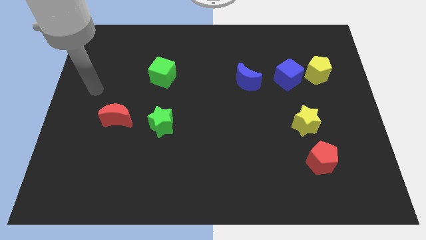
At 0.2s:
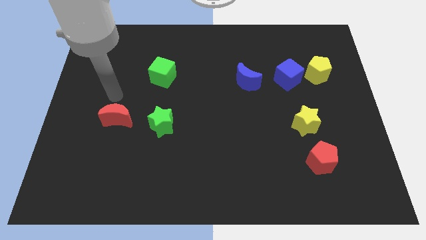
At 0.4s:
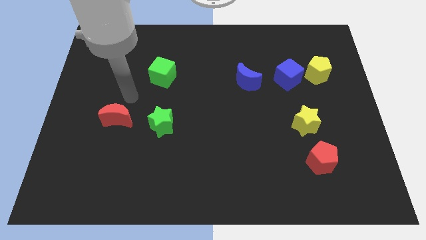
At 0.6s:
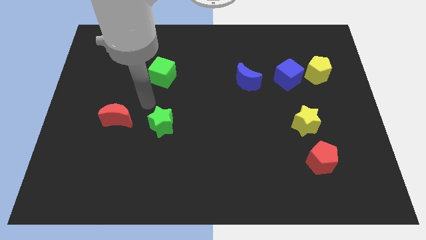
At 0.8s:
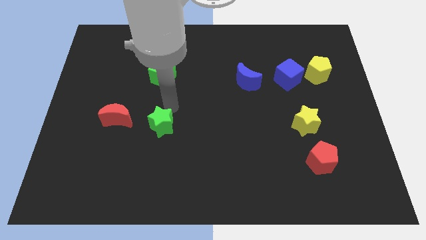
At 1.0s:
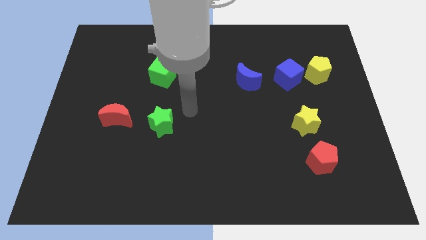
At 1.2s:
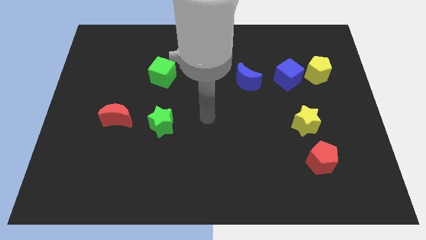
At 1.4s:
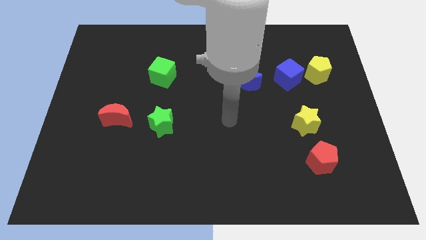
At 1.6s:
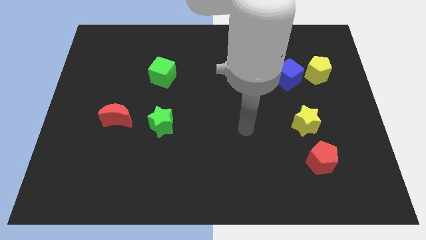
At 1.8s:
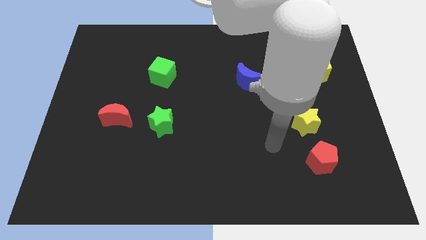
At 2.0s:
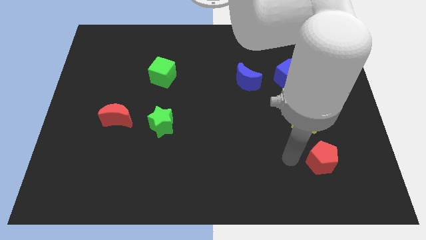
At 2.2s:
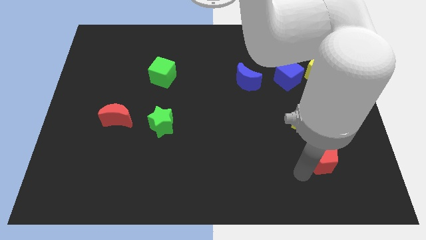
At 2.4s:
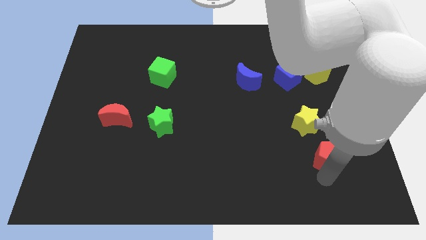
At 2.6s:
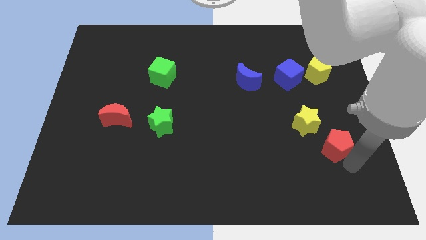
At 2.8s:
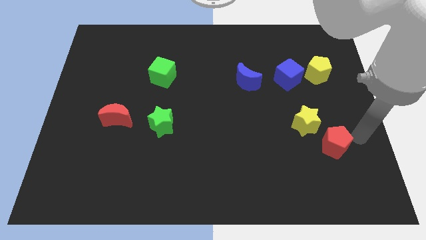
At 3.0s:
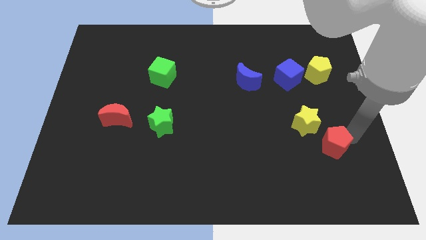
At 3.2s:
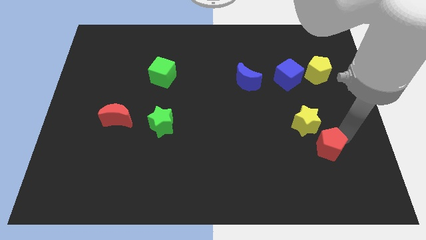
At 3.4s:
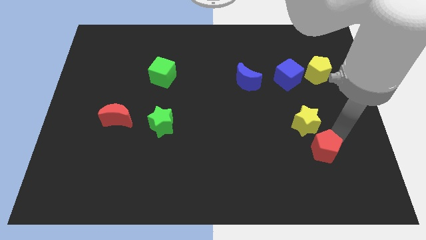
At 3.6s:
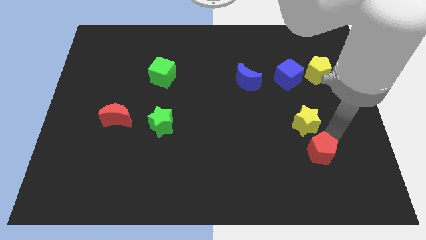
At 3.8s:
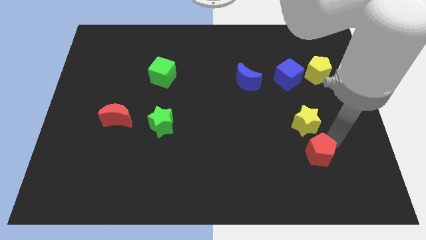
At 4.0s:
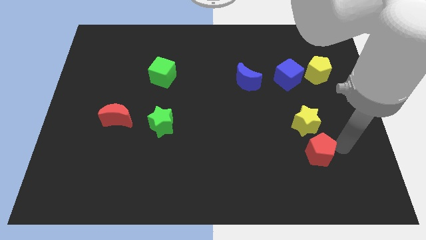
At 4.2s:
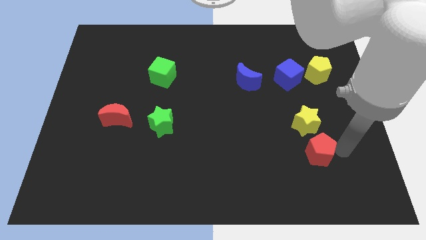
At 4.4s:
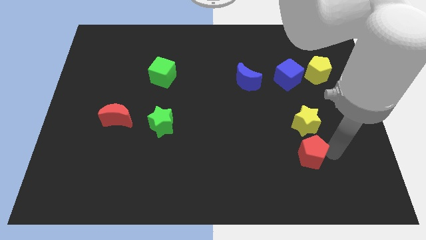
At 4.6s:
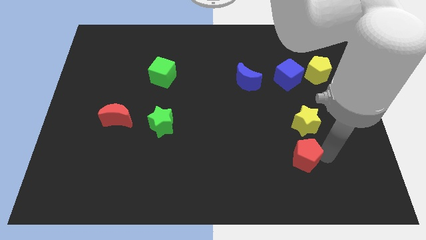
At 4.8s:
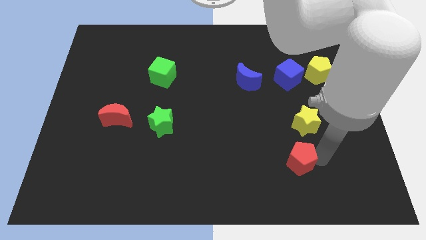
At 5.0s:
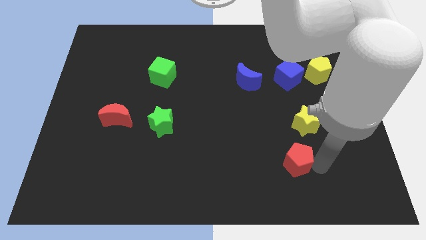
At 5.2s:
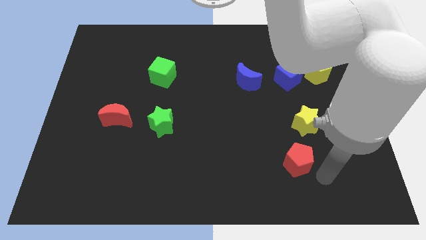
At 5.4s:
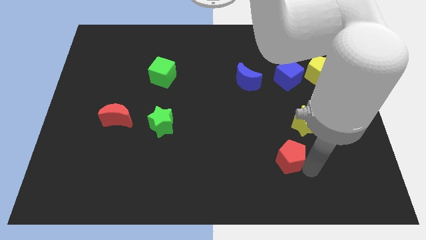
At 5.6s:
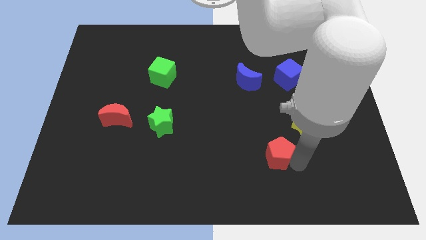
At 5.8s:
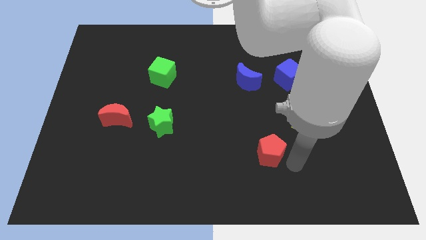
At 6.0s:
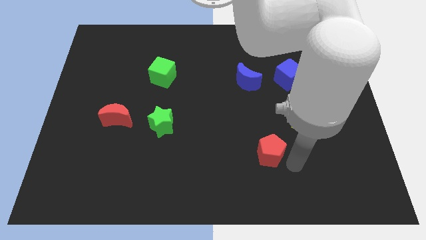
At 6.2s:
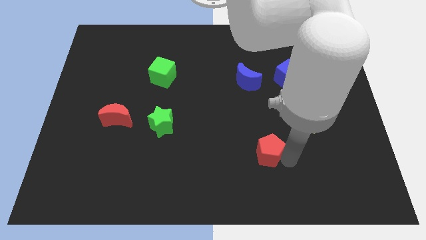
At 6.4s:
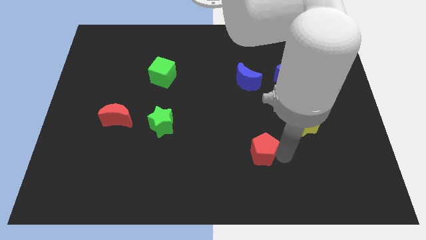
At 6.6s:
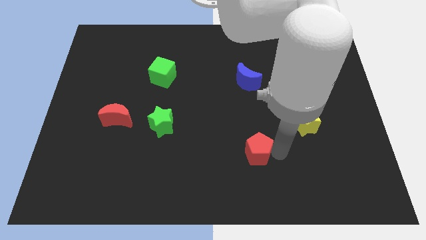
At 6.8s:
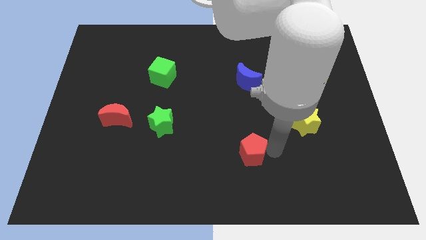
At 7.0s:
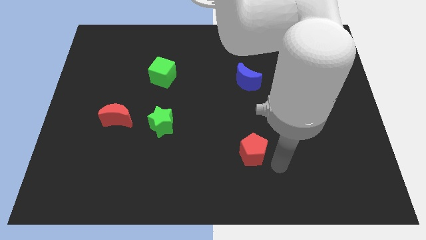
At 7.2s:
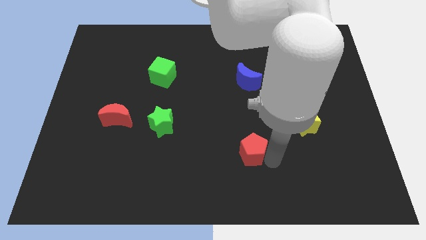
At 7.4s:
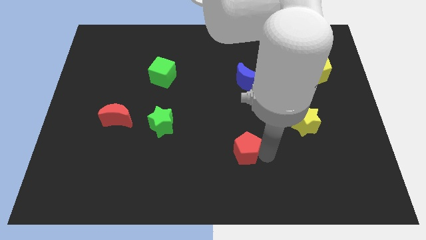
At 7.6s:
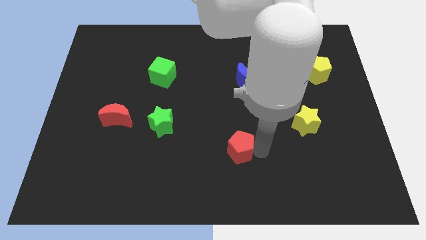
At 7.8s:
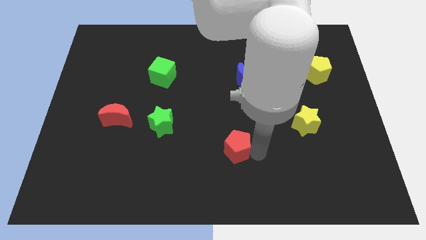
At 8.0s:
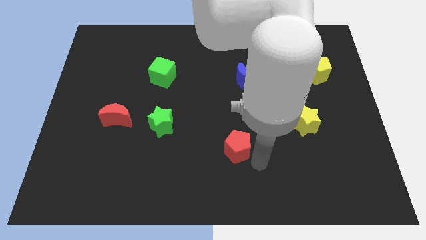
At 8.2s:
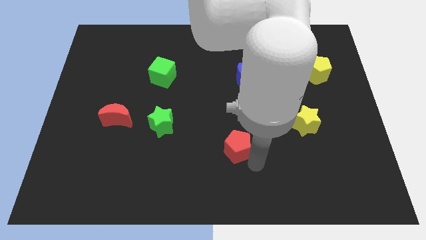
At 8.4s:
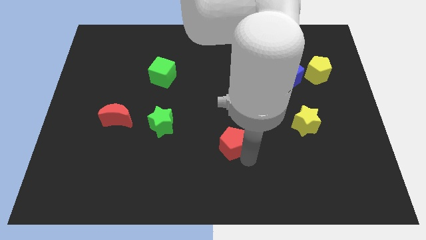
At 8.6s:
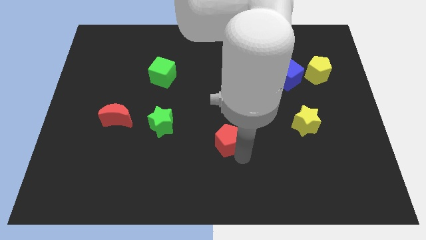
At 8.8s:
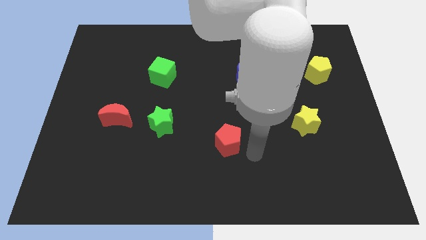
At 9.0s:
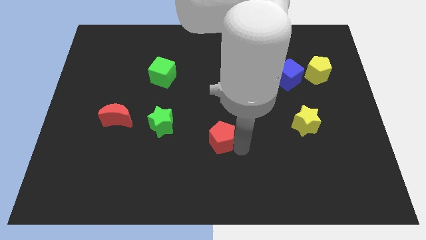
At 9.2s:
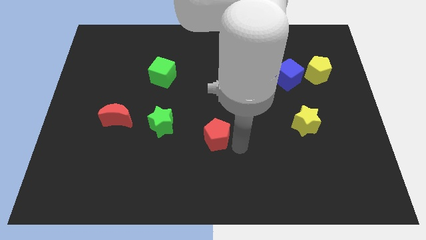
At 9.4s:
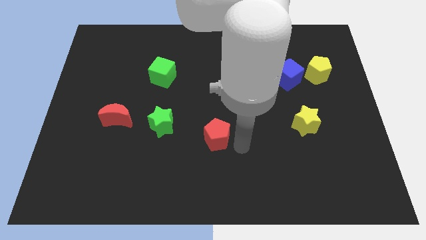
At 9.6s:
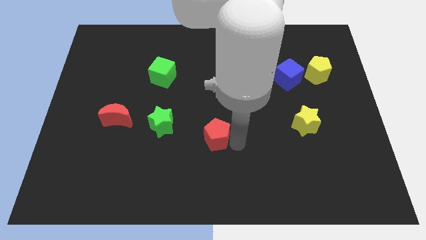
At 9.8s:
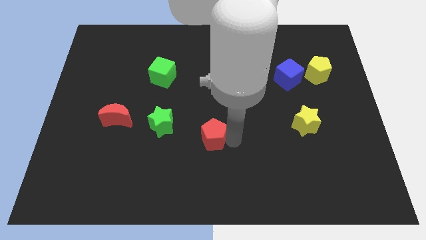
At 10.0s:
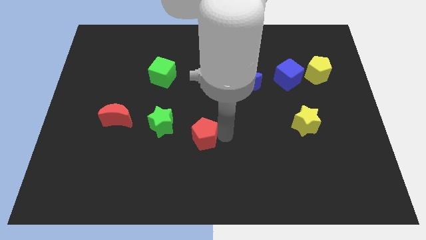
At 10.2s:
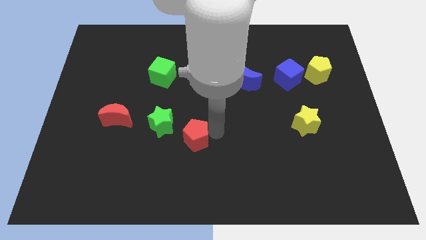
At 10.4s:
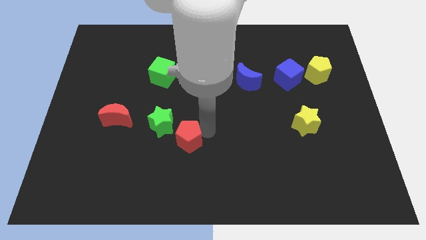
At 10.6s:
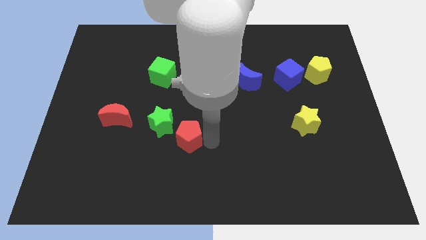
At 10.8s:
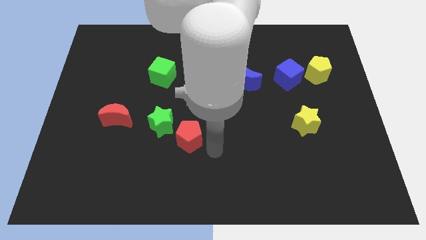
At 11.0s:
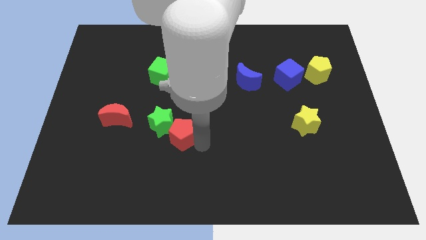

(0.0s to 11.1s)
push the red pentagon to the green star

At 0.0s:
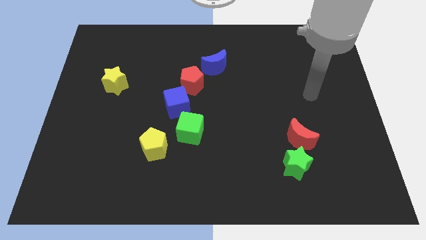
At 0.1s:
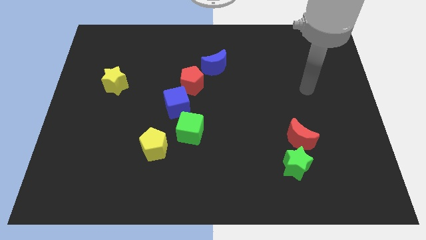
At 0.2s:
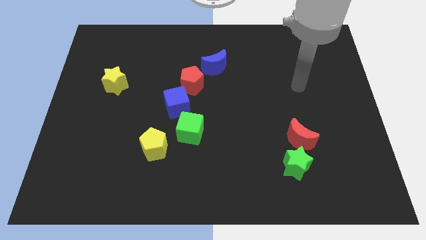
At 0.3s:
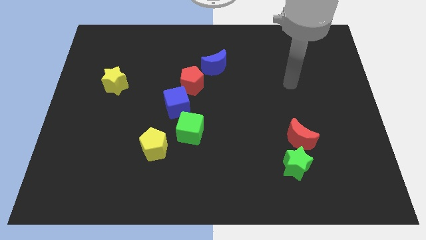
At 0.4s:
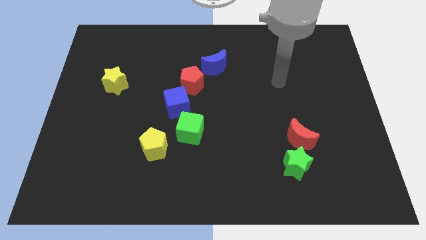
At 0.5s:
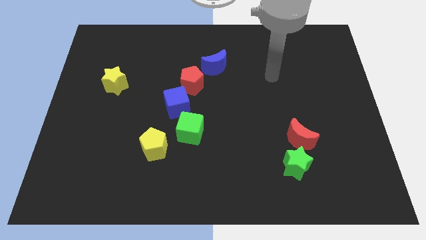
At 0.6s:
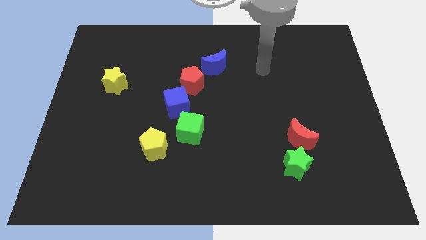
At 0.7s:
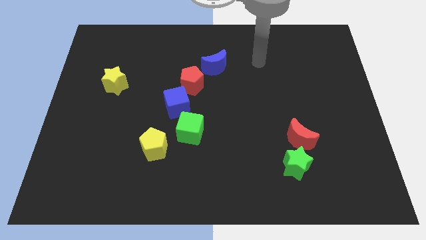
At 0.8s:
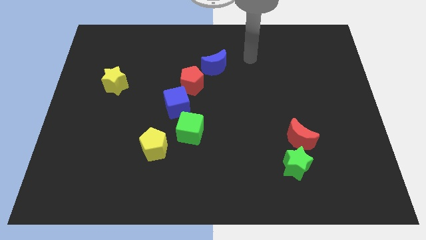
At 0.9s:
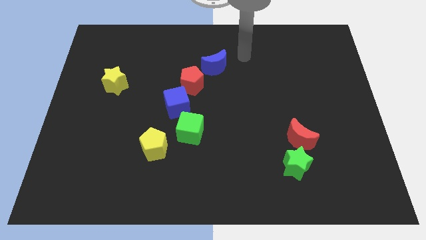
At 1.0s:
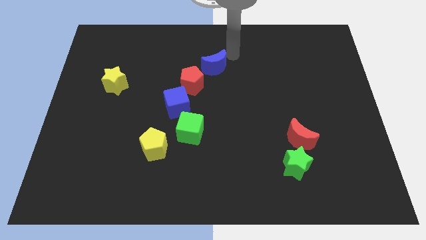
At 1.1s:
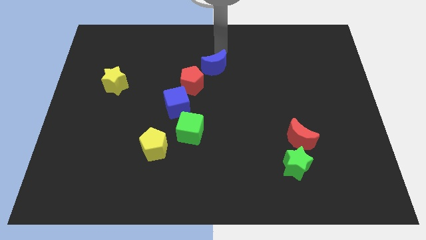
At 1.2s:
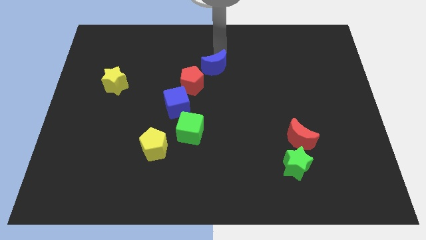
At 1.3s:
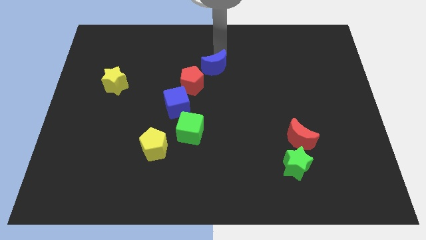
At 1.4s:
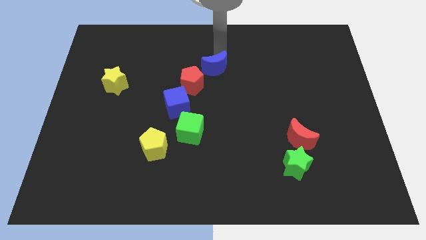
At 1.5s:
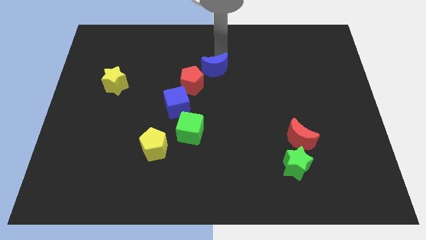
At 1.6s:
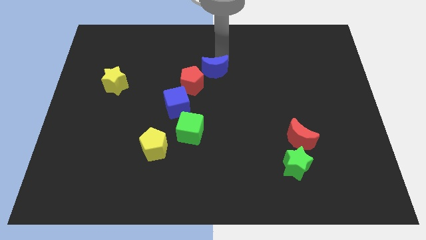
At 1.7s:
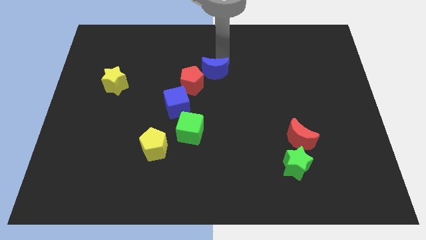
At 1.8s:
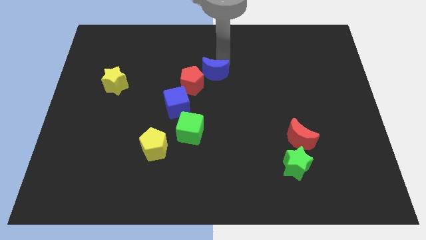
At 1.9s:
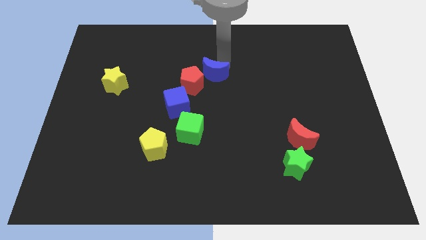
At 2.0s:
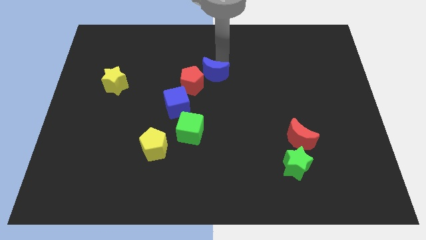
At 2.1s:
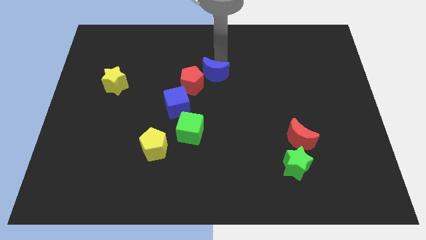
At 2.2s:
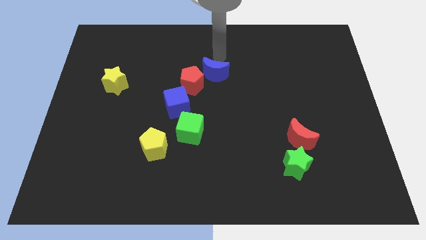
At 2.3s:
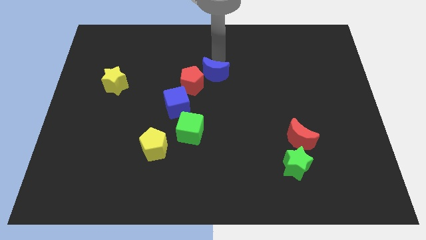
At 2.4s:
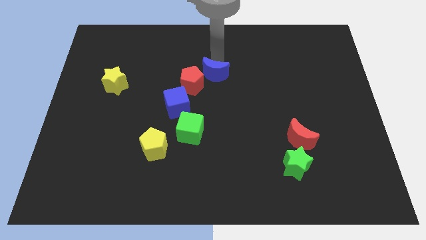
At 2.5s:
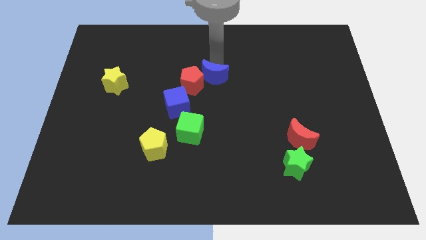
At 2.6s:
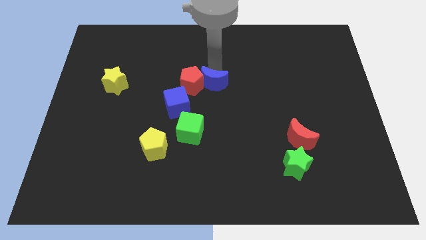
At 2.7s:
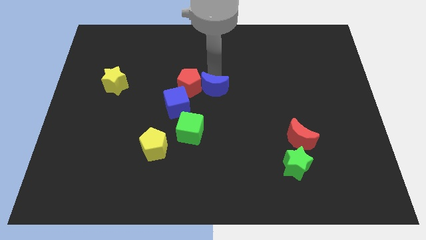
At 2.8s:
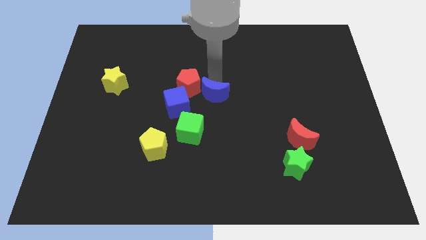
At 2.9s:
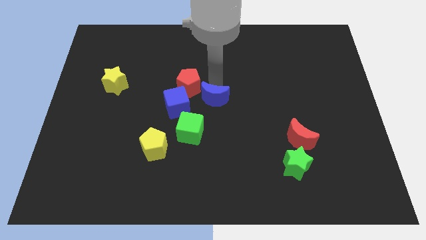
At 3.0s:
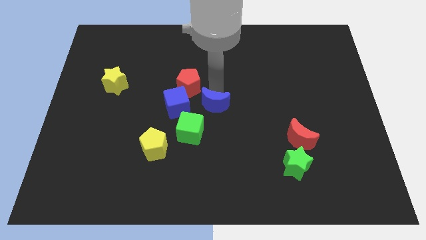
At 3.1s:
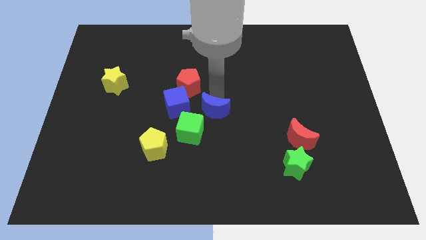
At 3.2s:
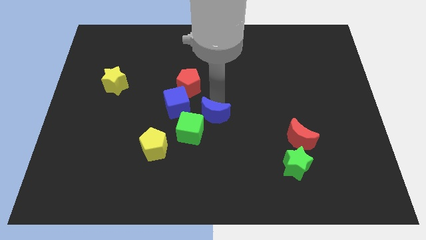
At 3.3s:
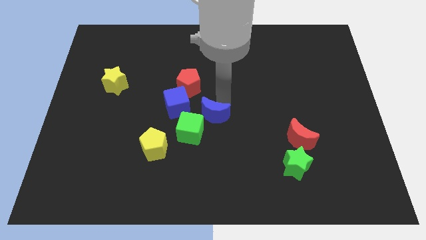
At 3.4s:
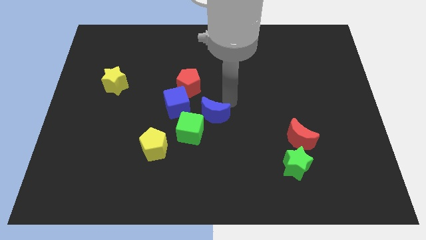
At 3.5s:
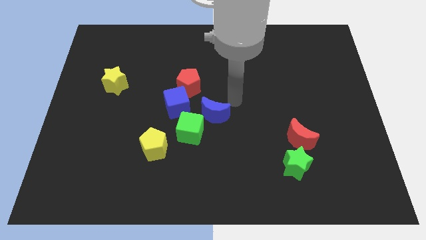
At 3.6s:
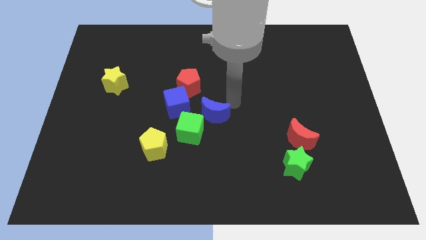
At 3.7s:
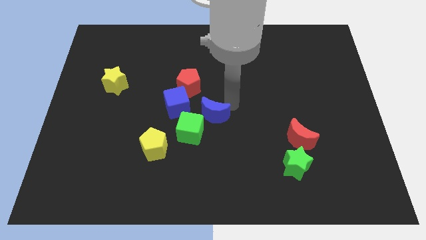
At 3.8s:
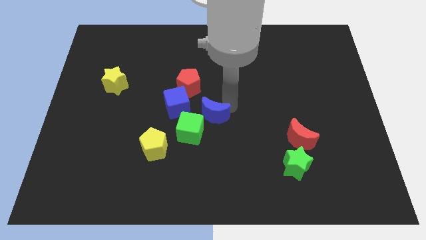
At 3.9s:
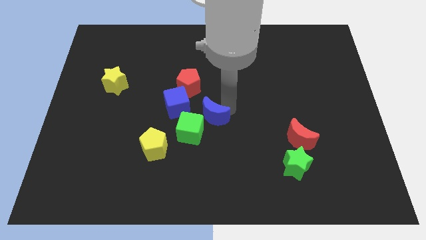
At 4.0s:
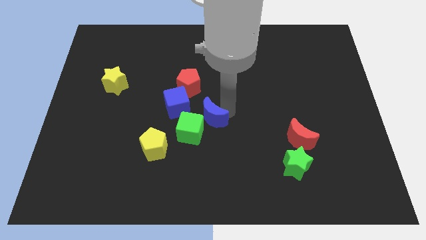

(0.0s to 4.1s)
move the blue moon next to the green cube
